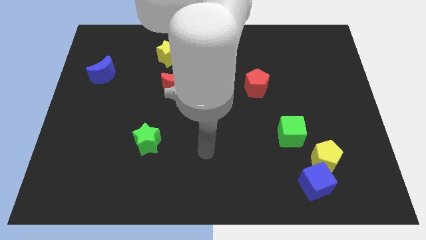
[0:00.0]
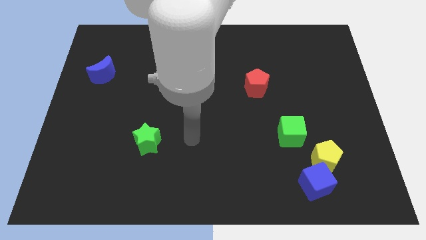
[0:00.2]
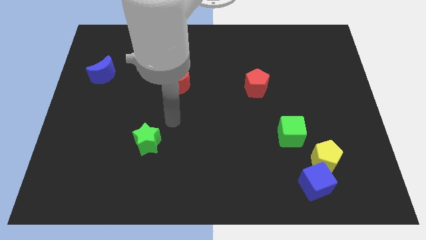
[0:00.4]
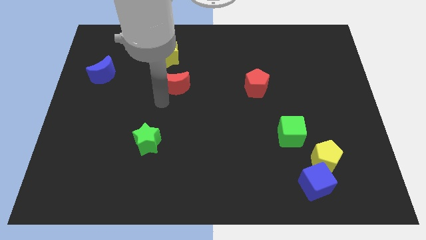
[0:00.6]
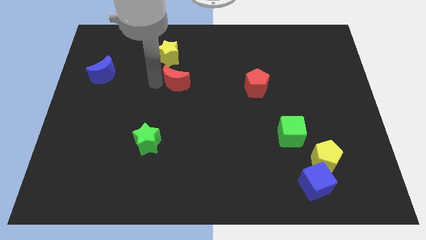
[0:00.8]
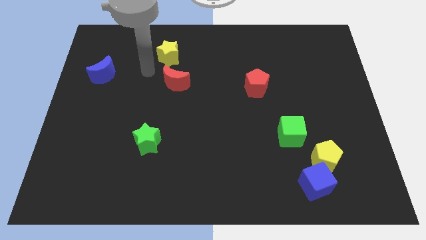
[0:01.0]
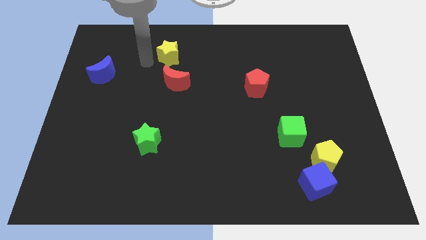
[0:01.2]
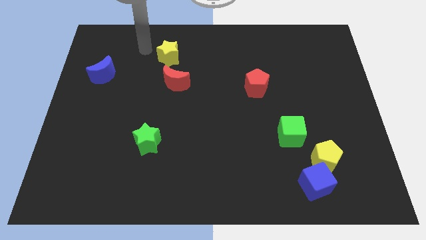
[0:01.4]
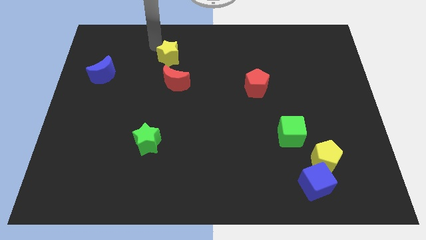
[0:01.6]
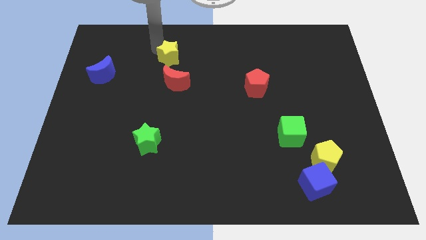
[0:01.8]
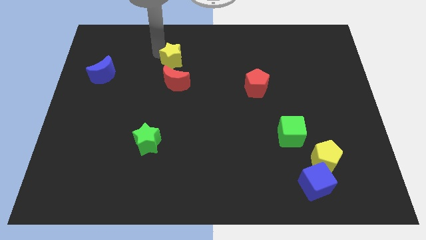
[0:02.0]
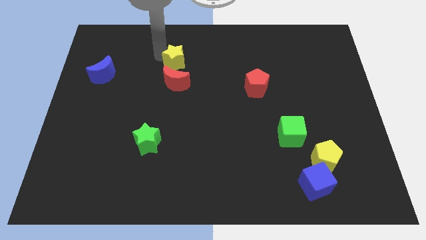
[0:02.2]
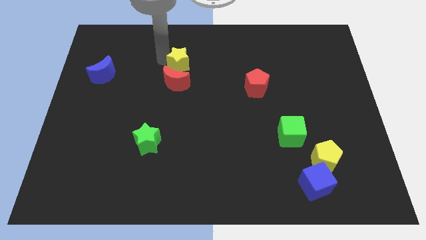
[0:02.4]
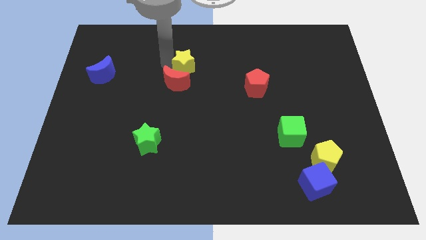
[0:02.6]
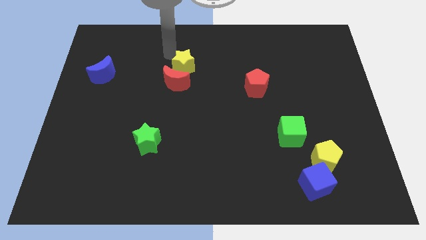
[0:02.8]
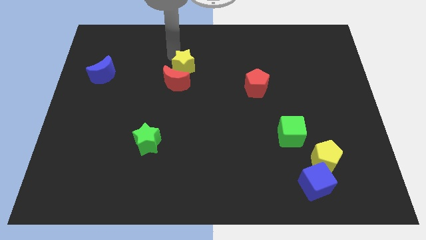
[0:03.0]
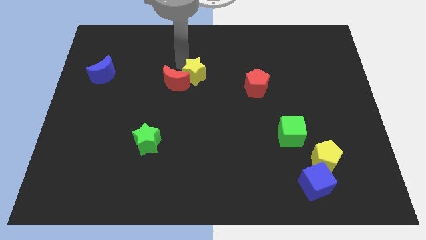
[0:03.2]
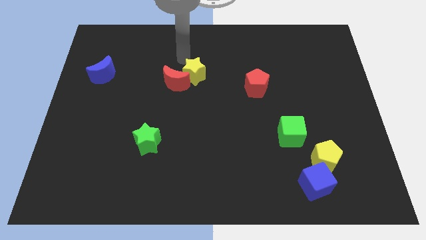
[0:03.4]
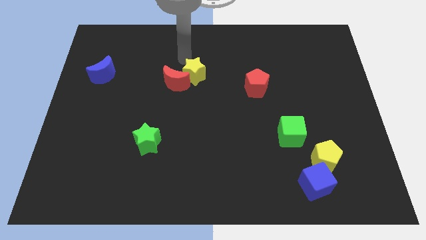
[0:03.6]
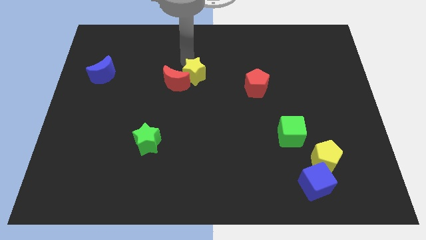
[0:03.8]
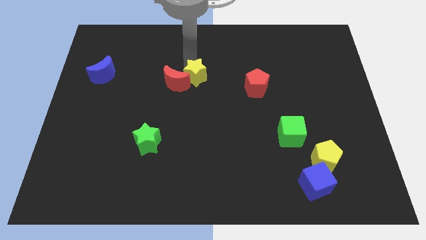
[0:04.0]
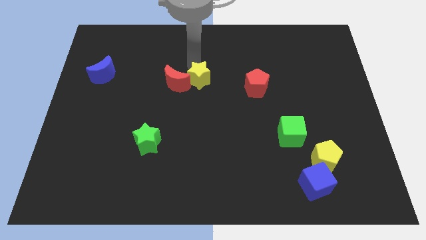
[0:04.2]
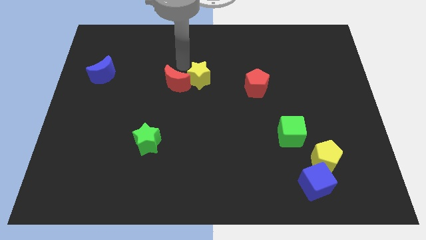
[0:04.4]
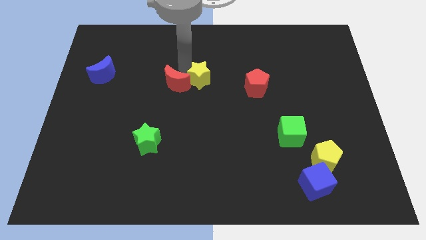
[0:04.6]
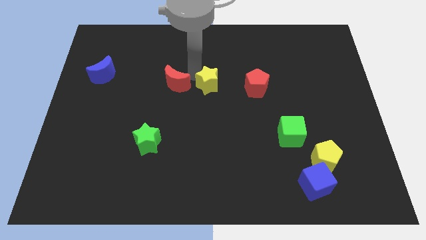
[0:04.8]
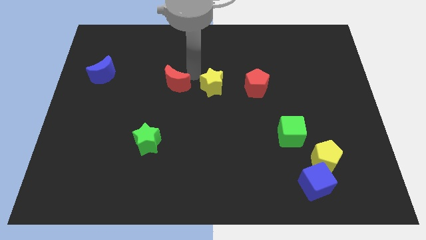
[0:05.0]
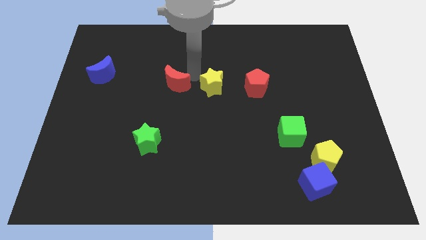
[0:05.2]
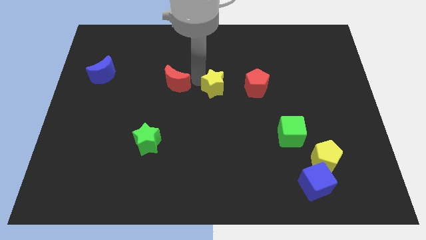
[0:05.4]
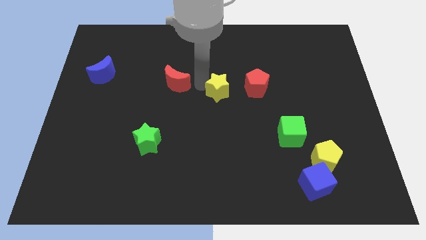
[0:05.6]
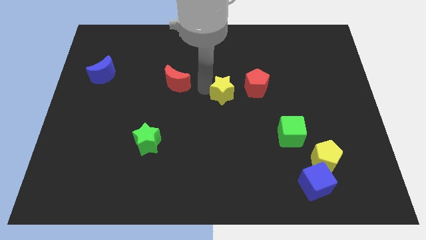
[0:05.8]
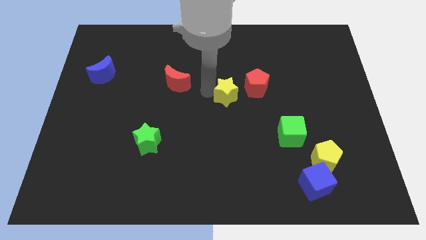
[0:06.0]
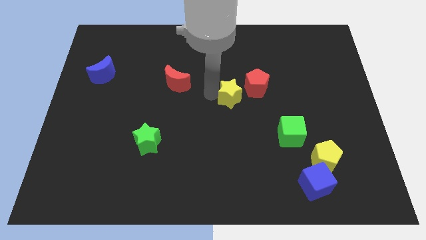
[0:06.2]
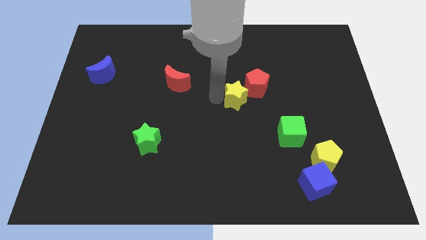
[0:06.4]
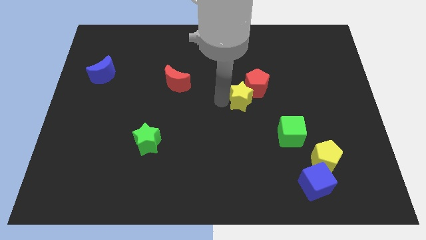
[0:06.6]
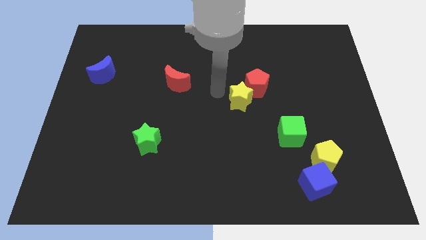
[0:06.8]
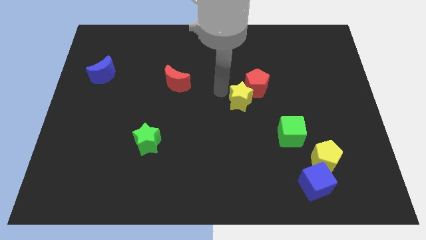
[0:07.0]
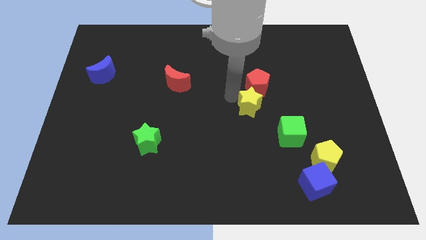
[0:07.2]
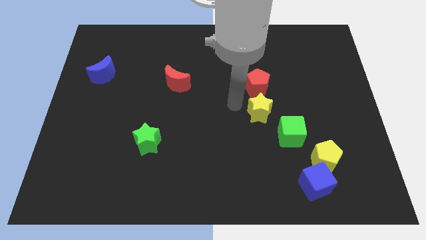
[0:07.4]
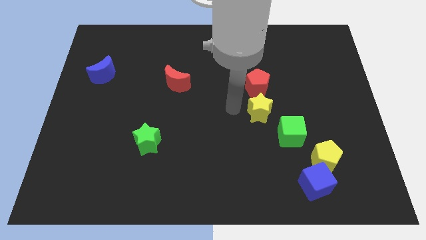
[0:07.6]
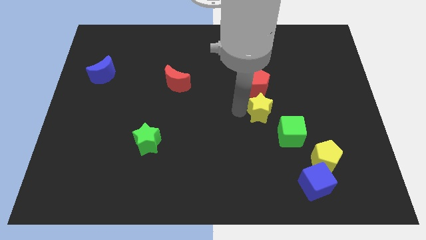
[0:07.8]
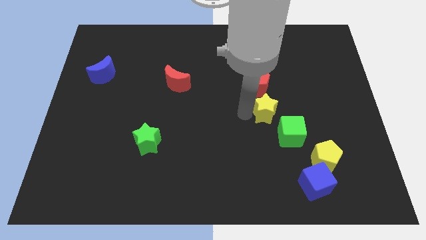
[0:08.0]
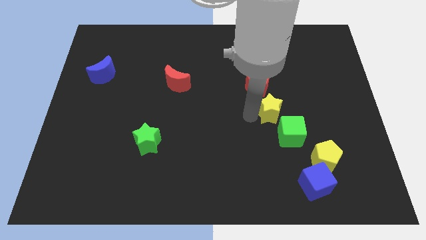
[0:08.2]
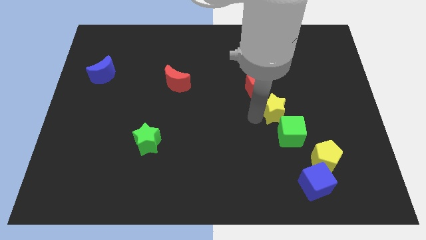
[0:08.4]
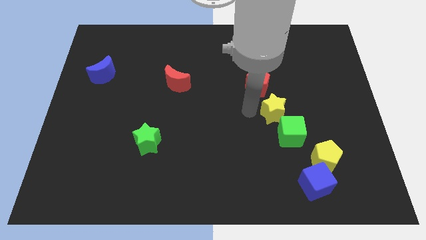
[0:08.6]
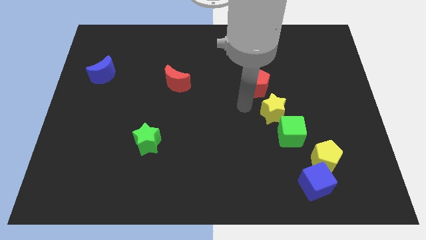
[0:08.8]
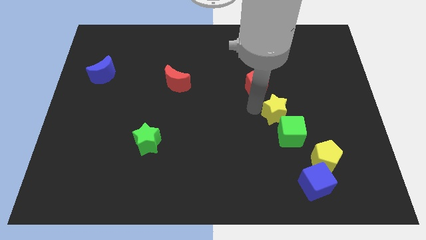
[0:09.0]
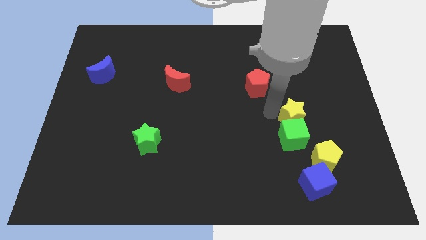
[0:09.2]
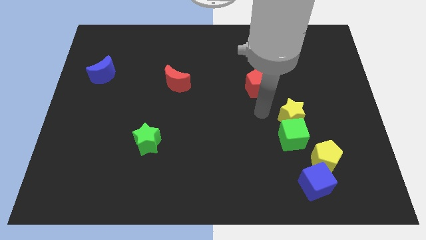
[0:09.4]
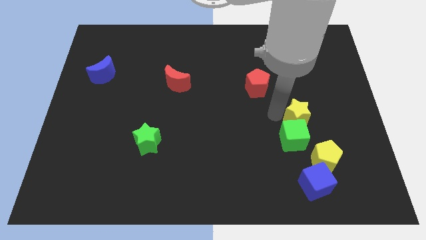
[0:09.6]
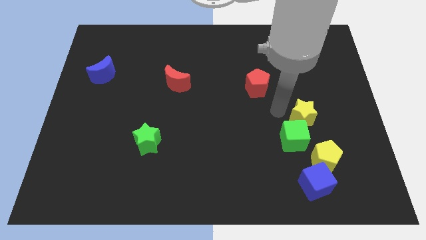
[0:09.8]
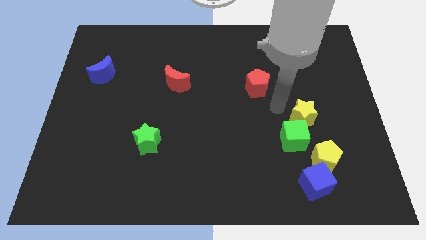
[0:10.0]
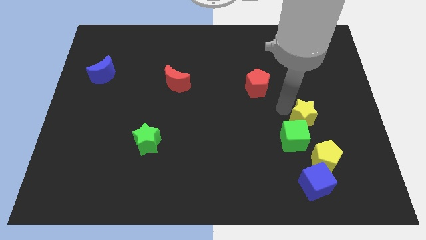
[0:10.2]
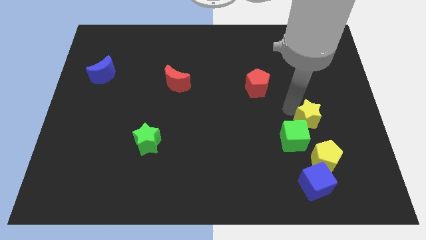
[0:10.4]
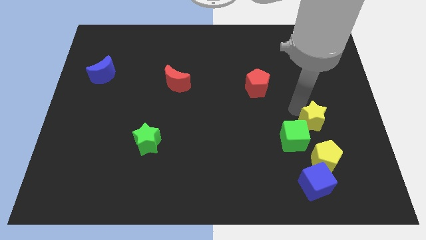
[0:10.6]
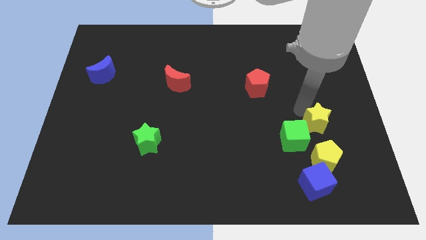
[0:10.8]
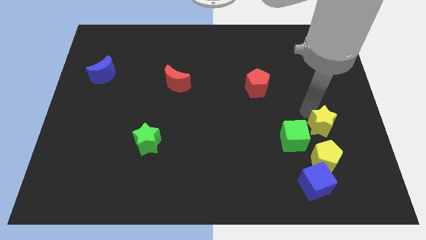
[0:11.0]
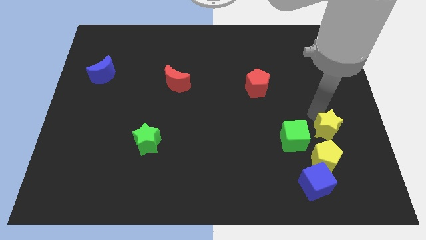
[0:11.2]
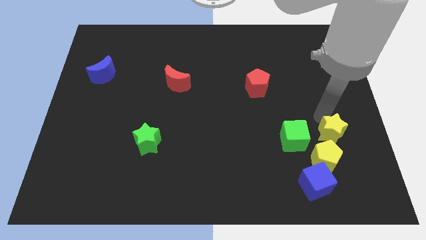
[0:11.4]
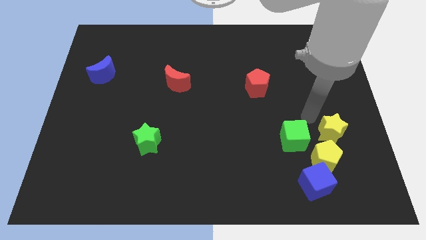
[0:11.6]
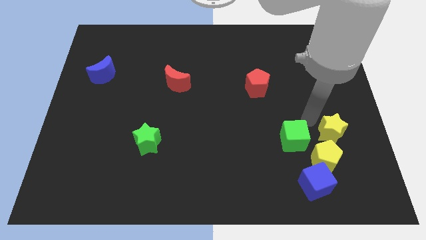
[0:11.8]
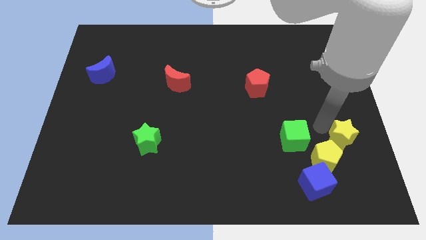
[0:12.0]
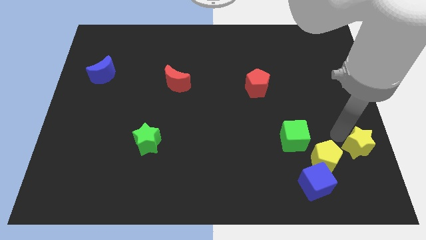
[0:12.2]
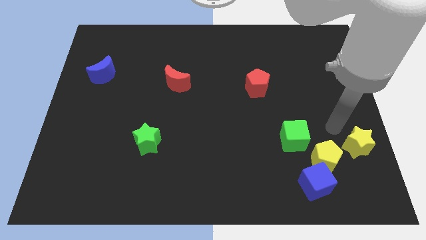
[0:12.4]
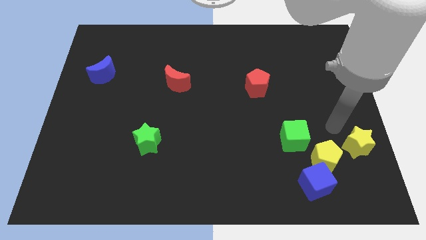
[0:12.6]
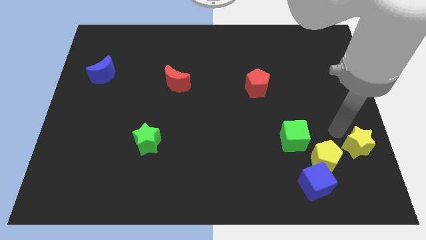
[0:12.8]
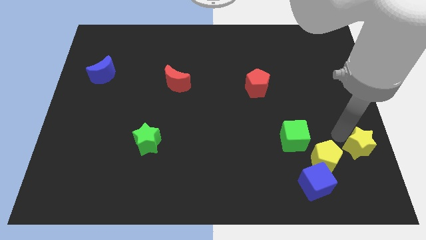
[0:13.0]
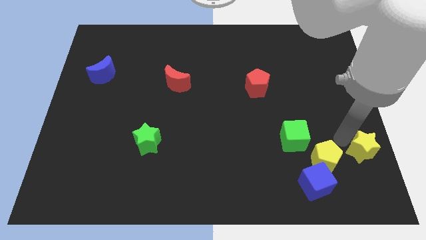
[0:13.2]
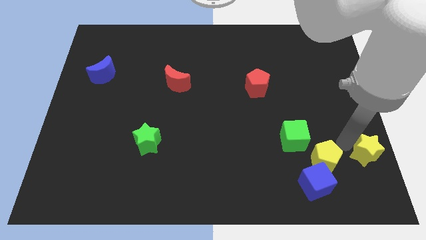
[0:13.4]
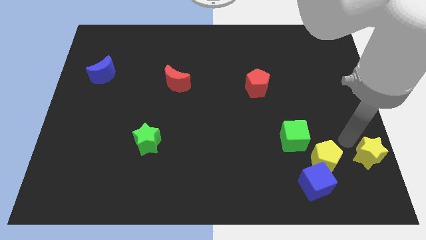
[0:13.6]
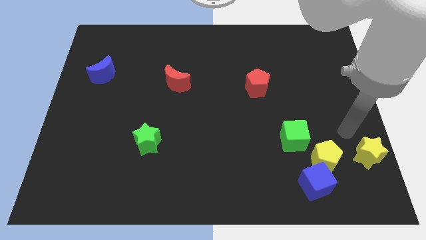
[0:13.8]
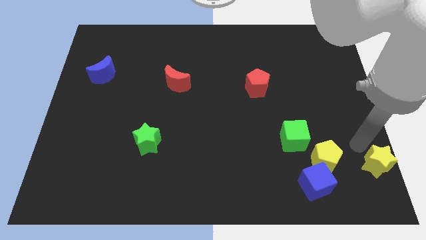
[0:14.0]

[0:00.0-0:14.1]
move the yellow star to the bottom right
